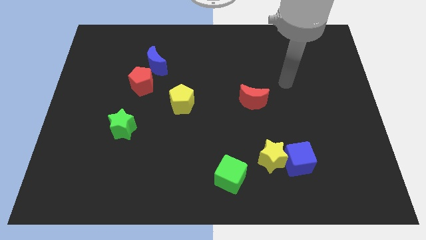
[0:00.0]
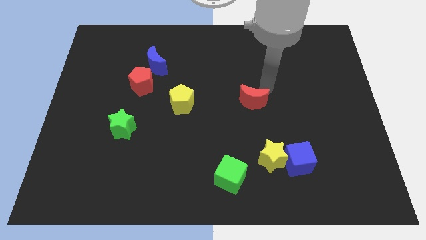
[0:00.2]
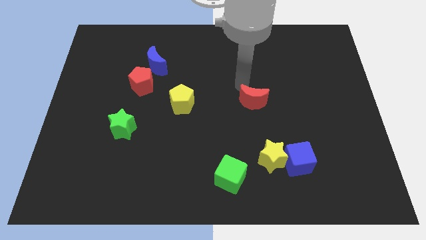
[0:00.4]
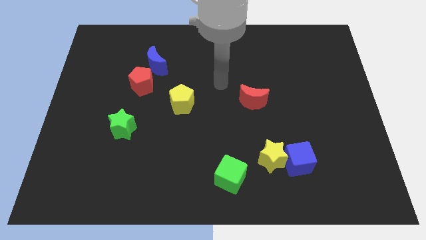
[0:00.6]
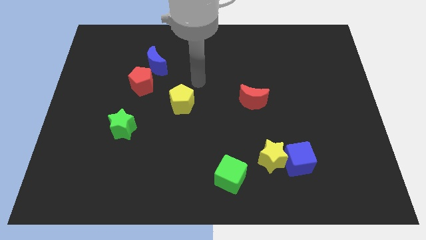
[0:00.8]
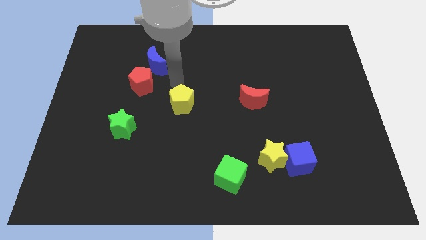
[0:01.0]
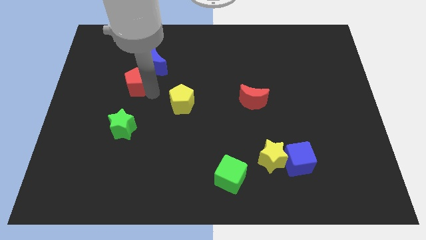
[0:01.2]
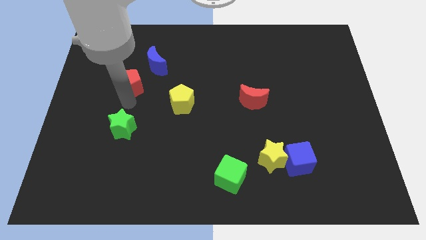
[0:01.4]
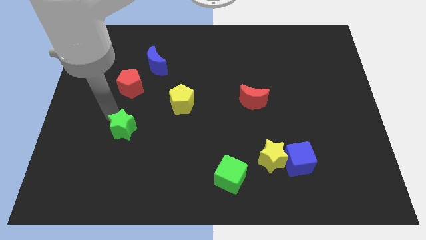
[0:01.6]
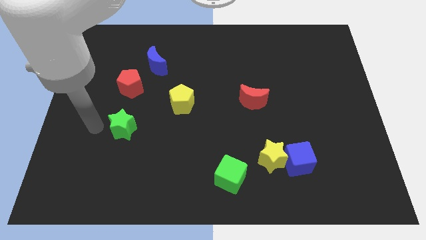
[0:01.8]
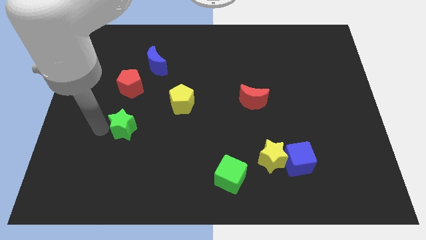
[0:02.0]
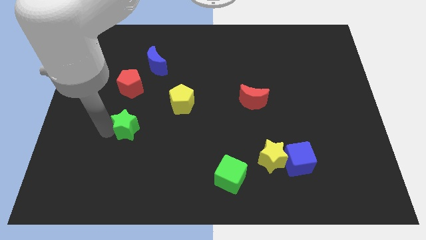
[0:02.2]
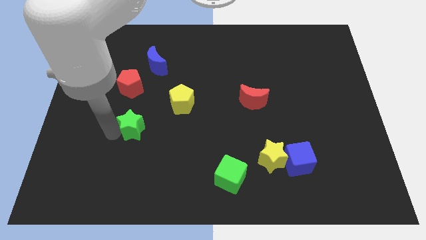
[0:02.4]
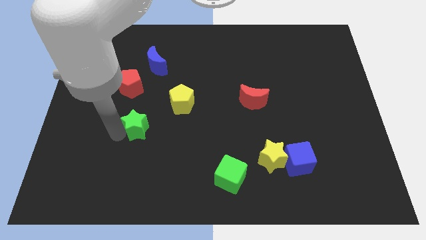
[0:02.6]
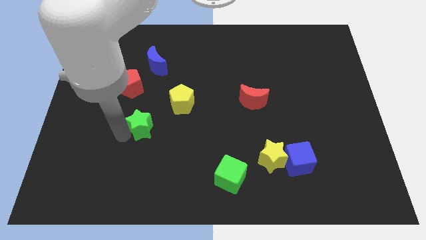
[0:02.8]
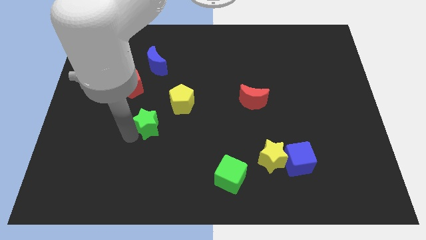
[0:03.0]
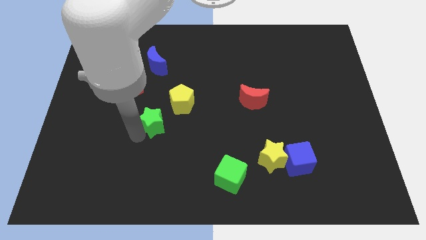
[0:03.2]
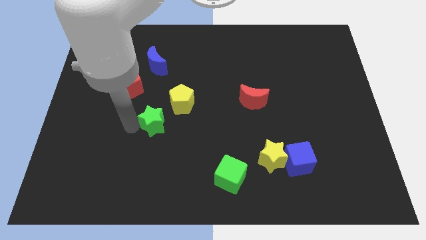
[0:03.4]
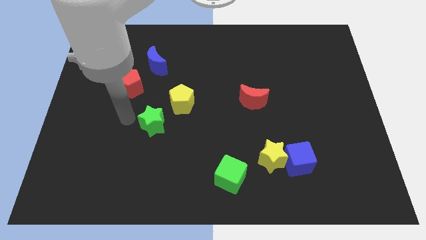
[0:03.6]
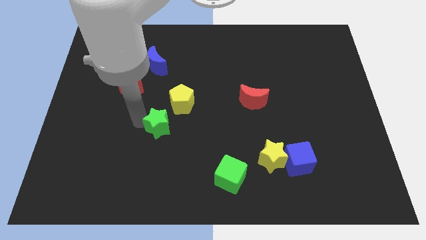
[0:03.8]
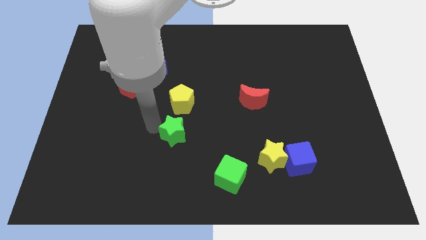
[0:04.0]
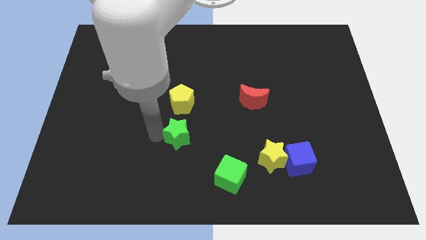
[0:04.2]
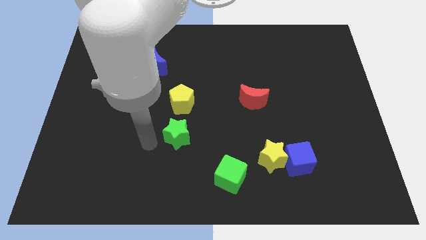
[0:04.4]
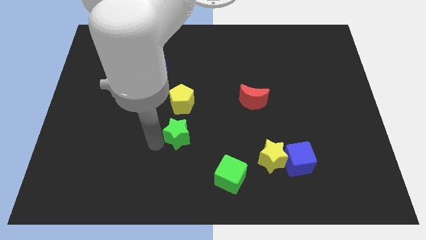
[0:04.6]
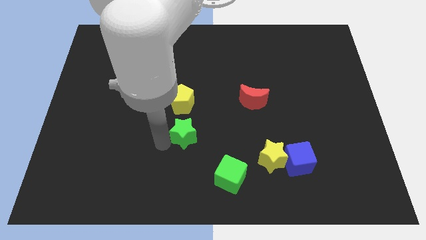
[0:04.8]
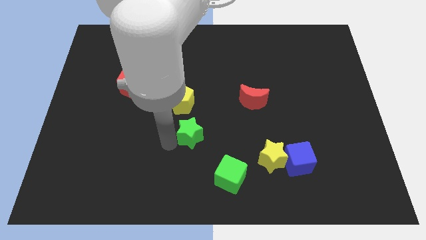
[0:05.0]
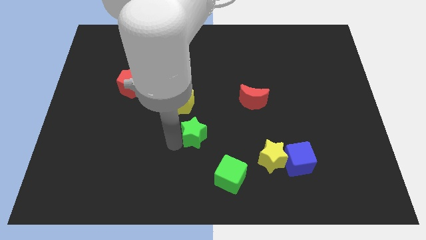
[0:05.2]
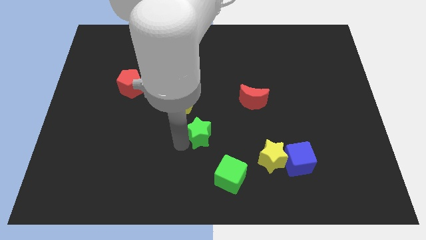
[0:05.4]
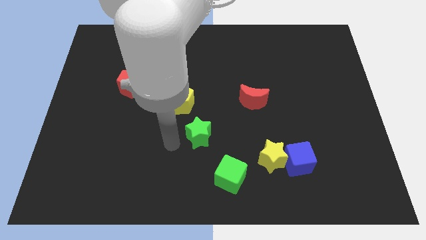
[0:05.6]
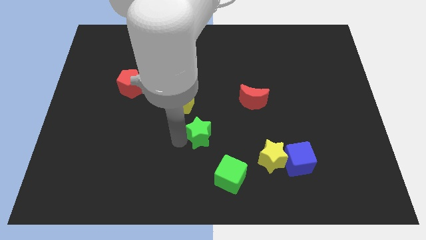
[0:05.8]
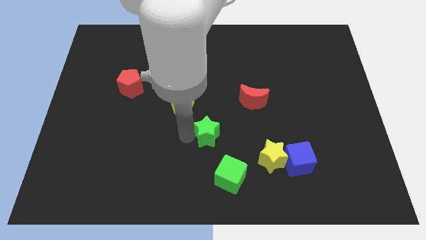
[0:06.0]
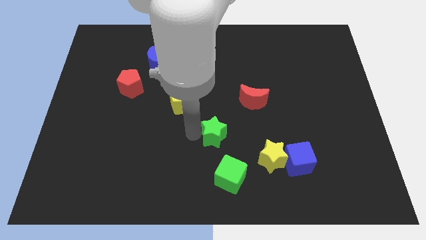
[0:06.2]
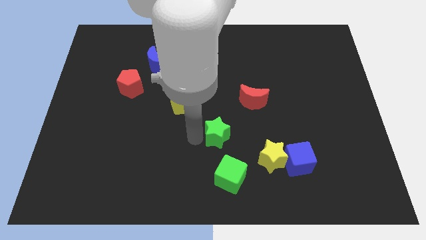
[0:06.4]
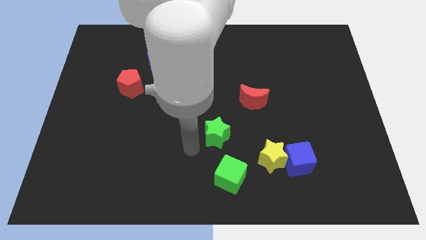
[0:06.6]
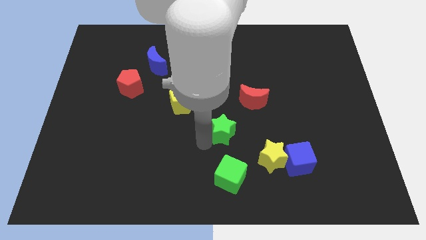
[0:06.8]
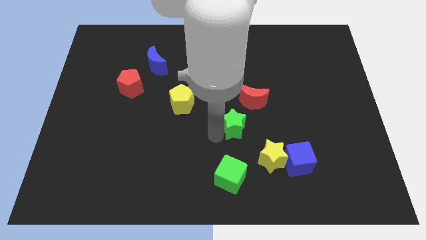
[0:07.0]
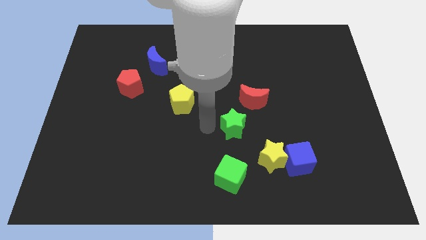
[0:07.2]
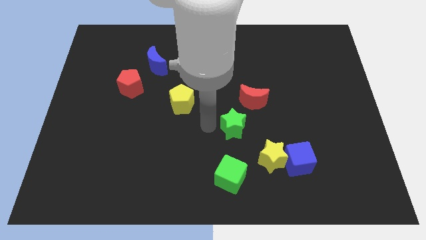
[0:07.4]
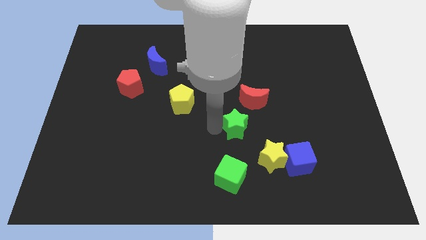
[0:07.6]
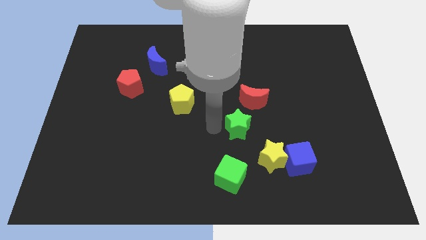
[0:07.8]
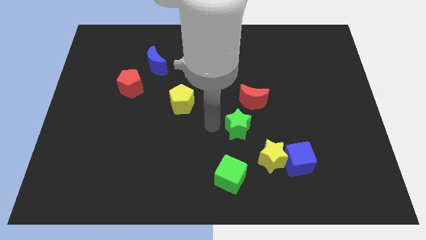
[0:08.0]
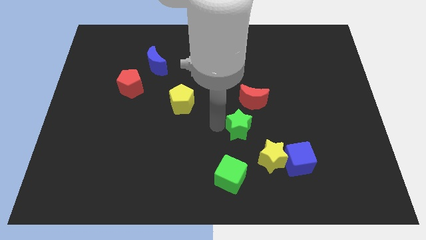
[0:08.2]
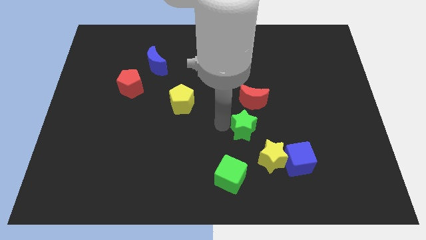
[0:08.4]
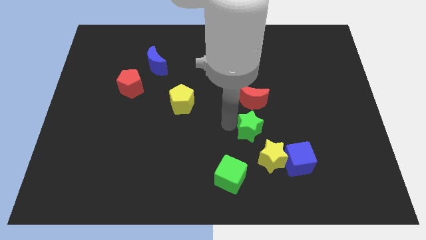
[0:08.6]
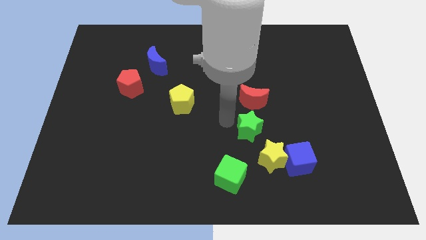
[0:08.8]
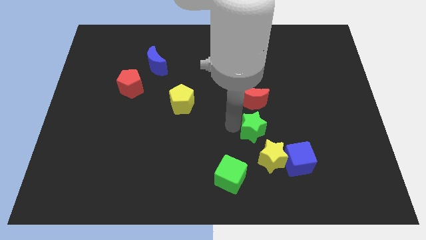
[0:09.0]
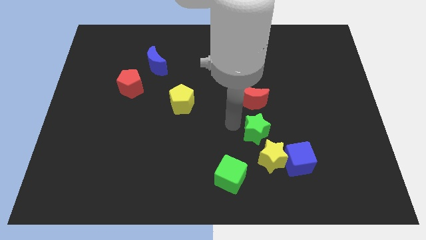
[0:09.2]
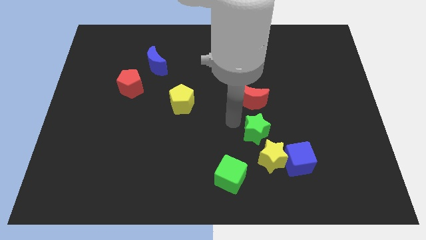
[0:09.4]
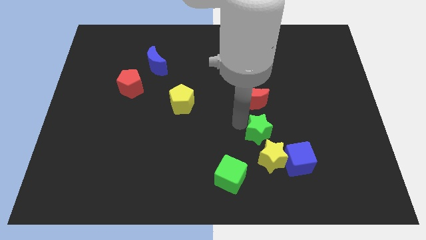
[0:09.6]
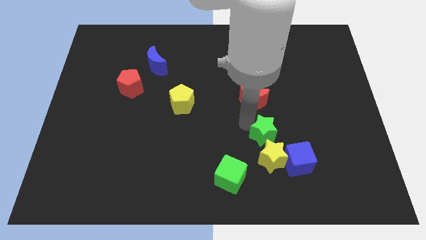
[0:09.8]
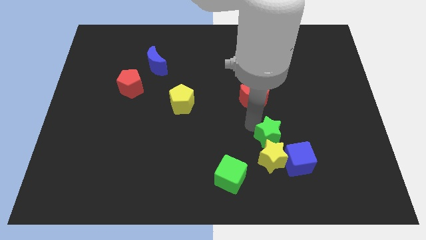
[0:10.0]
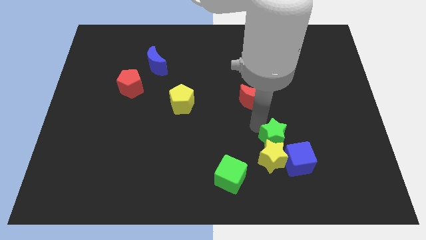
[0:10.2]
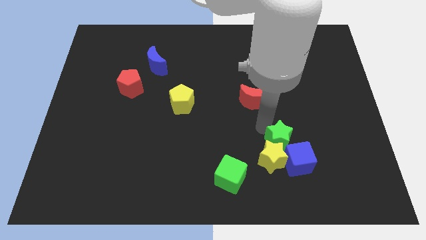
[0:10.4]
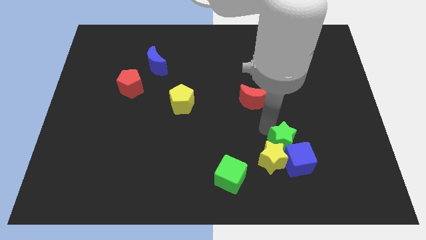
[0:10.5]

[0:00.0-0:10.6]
put the green star towards the blue cube

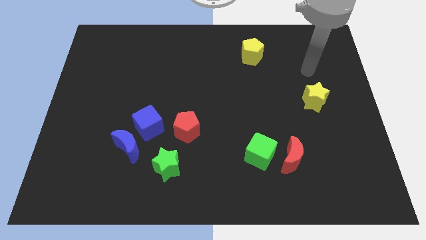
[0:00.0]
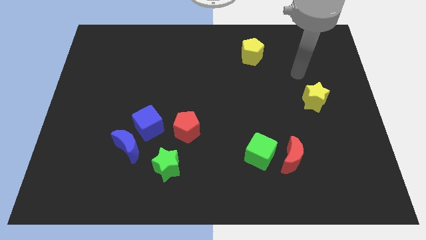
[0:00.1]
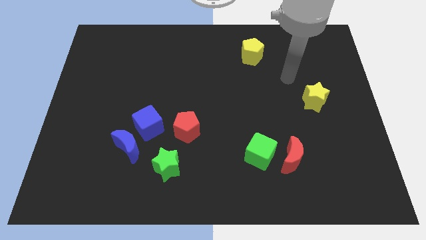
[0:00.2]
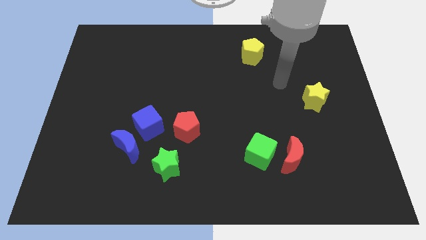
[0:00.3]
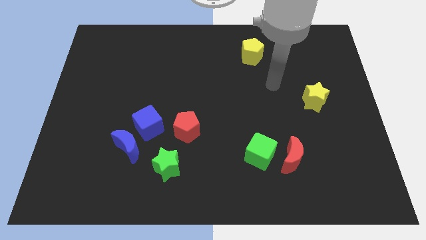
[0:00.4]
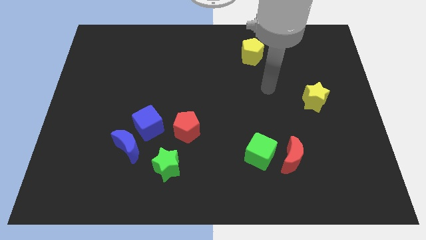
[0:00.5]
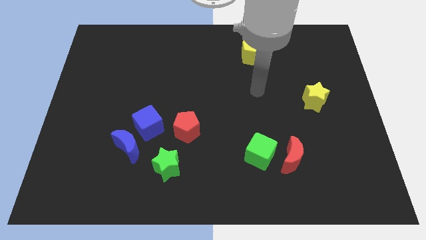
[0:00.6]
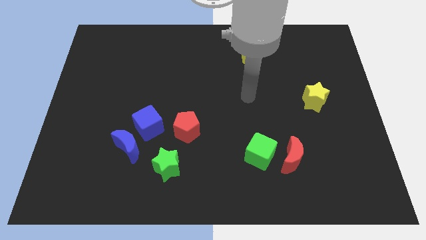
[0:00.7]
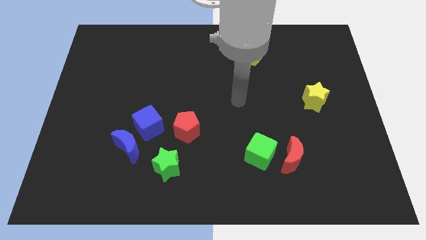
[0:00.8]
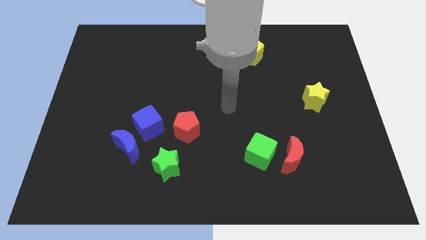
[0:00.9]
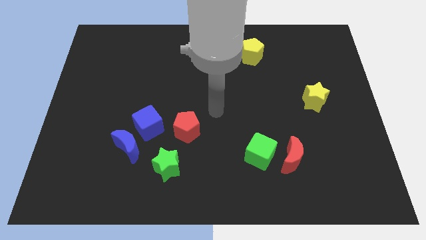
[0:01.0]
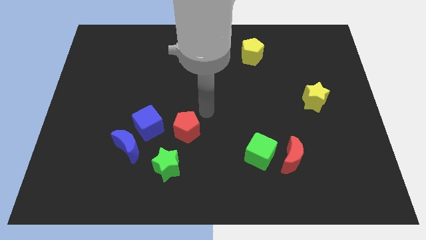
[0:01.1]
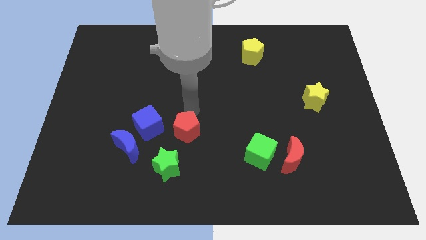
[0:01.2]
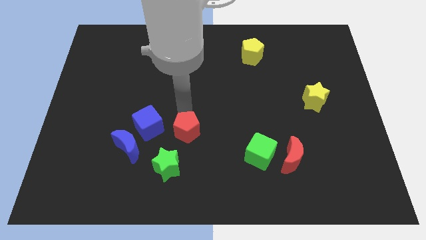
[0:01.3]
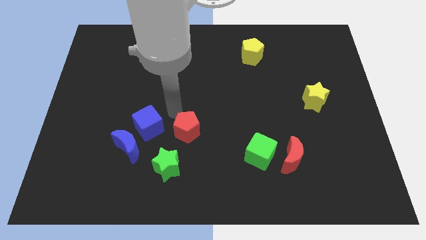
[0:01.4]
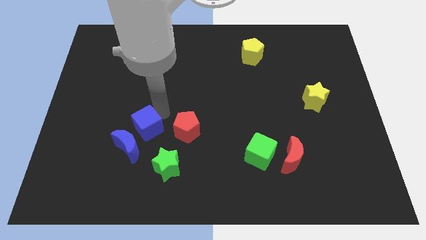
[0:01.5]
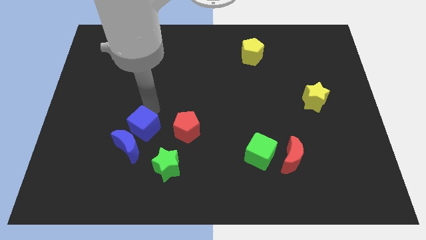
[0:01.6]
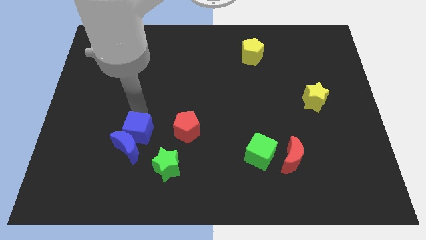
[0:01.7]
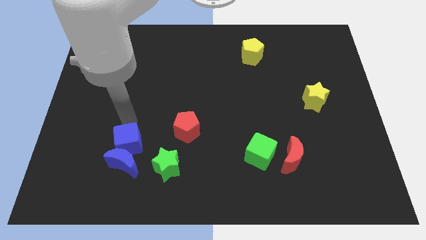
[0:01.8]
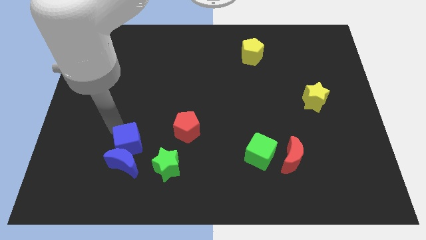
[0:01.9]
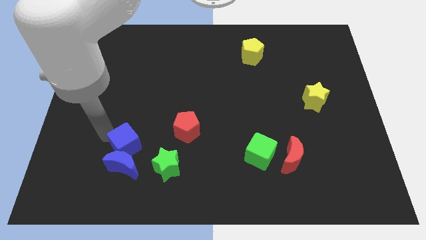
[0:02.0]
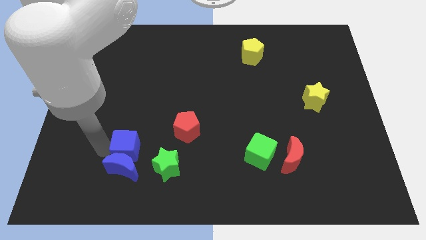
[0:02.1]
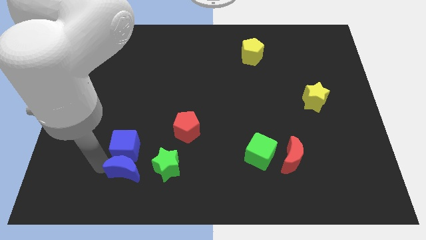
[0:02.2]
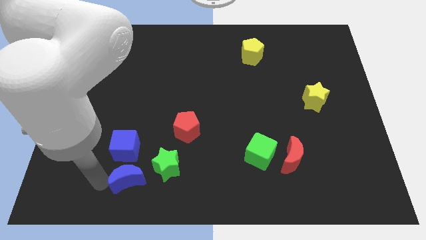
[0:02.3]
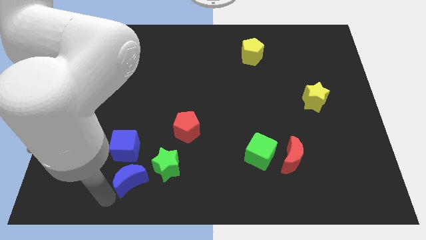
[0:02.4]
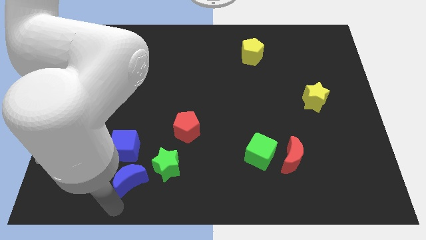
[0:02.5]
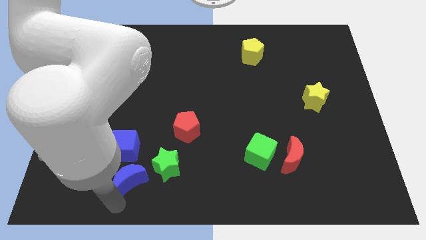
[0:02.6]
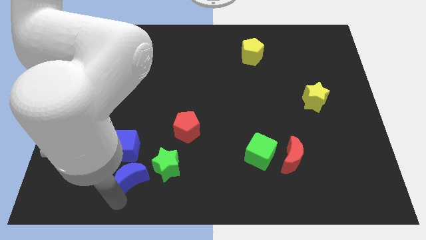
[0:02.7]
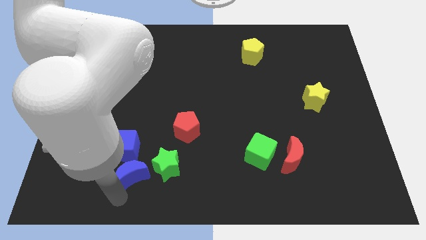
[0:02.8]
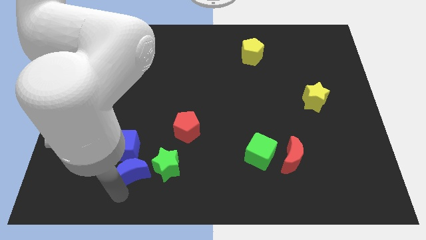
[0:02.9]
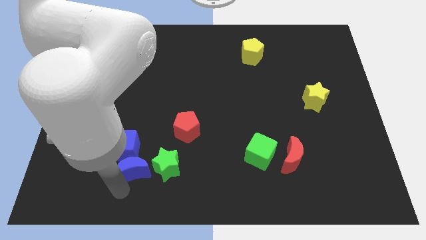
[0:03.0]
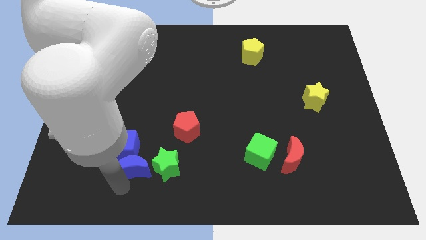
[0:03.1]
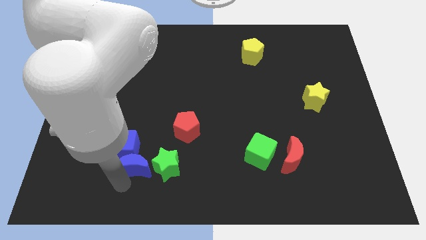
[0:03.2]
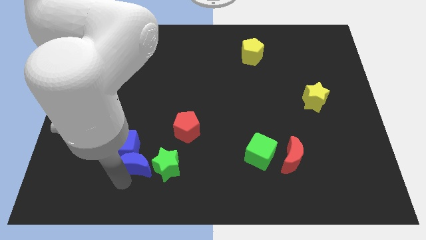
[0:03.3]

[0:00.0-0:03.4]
put the blue moon next to the green star
